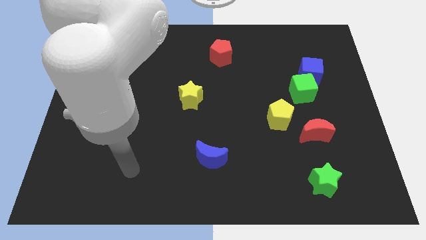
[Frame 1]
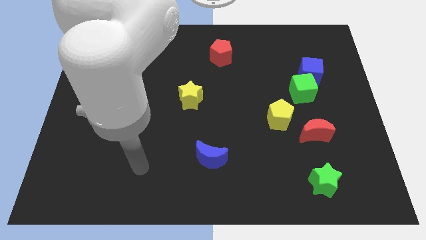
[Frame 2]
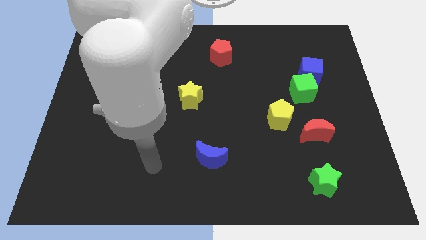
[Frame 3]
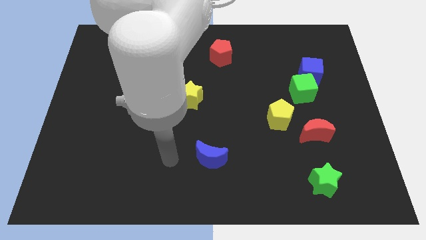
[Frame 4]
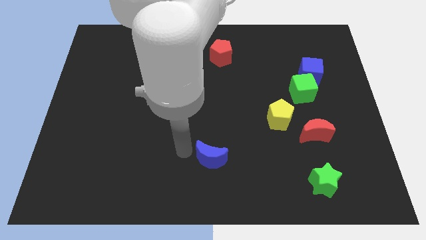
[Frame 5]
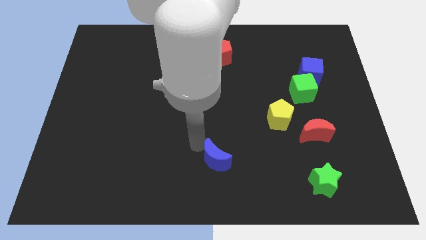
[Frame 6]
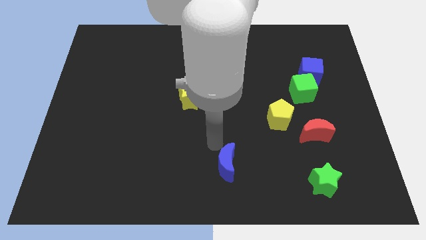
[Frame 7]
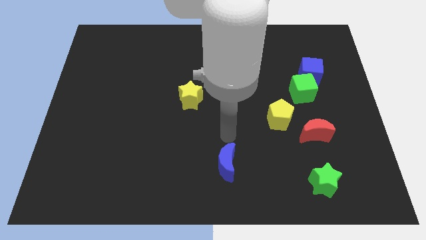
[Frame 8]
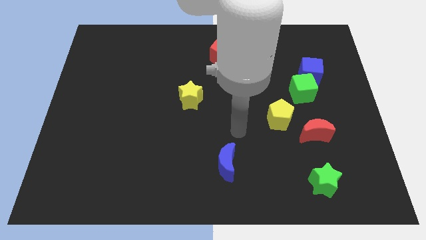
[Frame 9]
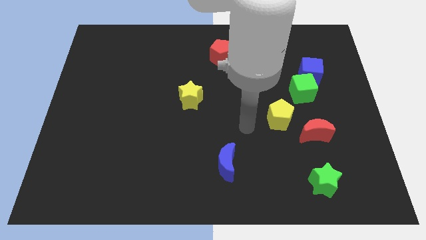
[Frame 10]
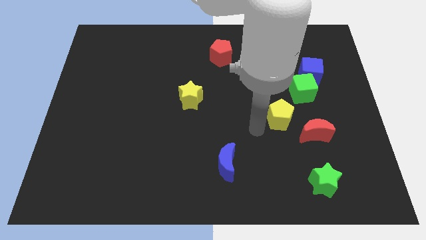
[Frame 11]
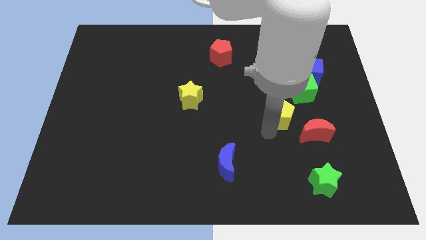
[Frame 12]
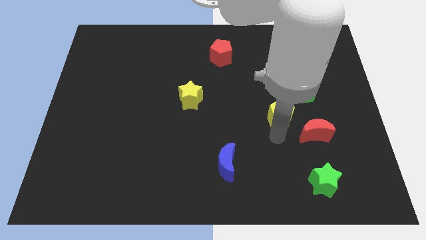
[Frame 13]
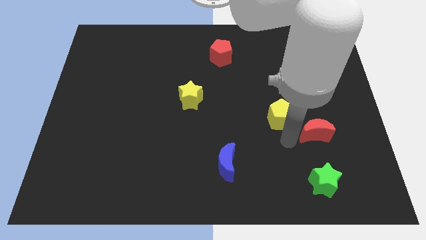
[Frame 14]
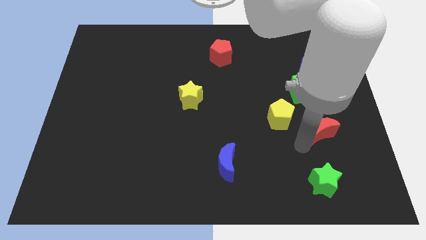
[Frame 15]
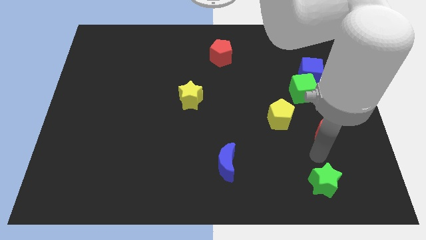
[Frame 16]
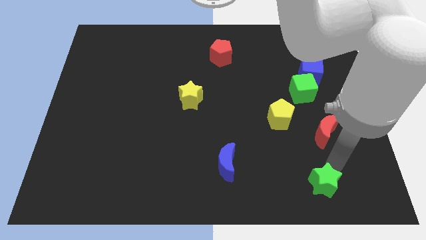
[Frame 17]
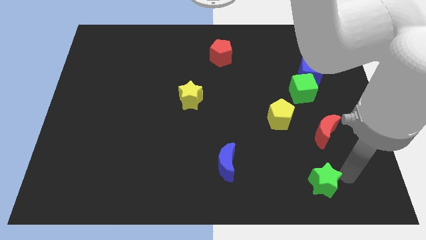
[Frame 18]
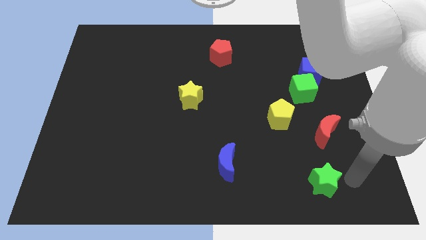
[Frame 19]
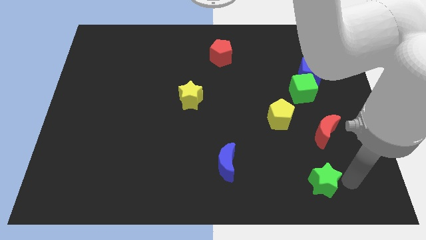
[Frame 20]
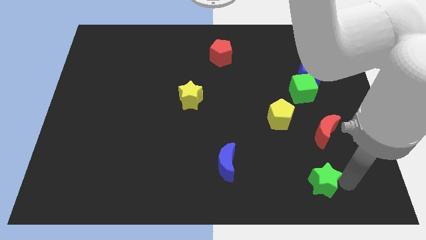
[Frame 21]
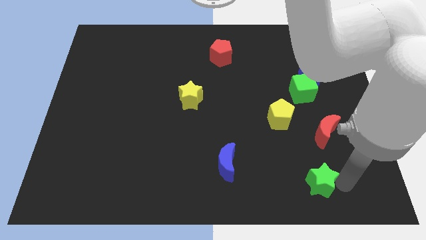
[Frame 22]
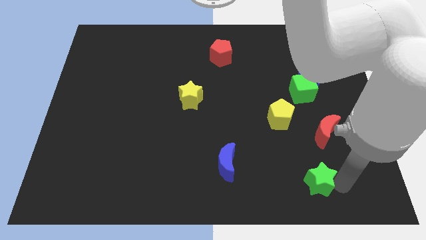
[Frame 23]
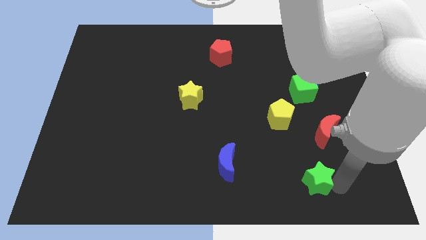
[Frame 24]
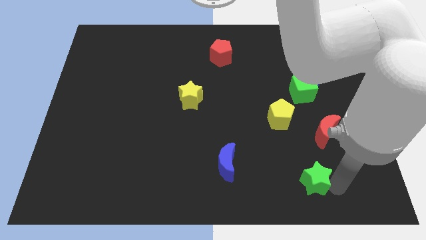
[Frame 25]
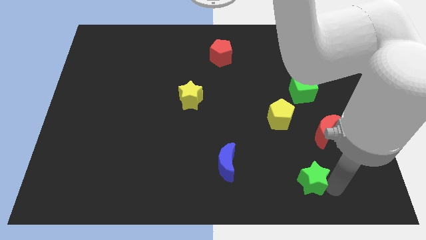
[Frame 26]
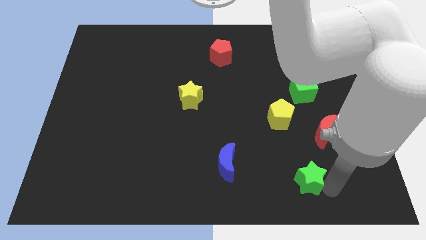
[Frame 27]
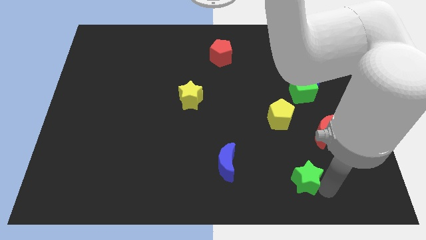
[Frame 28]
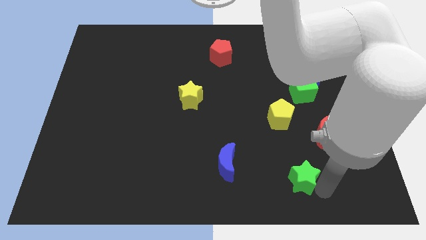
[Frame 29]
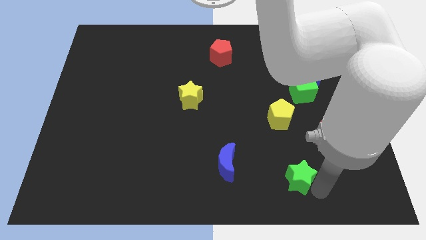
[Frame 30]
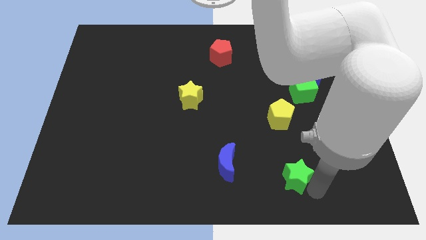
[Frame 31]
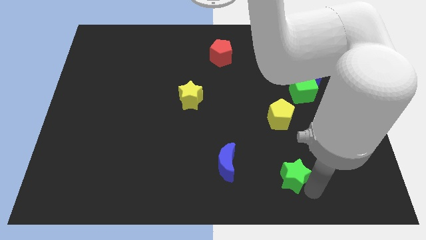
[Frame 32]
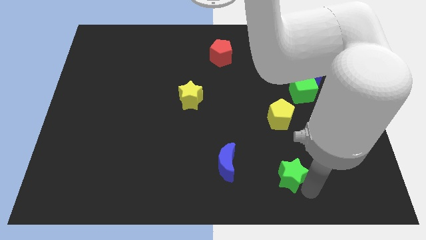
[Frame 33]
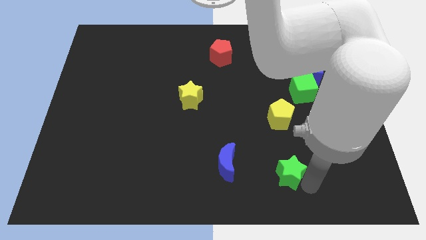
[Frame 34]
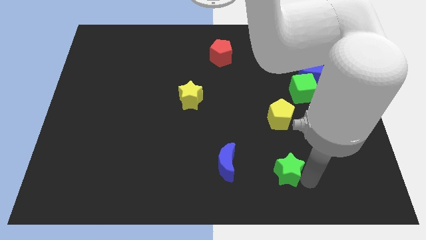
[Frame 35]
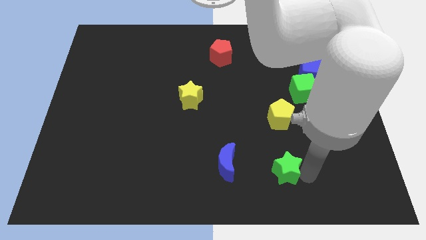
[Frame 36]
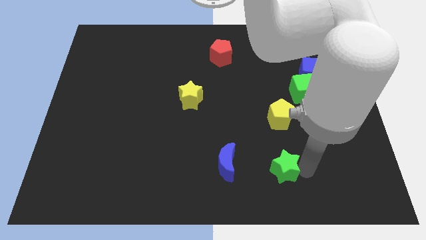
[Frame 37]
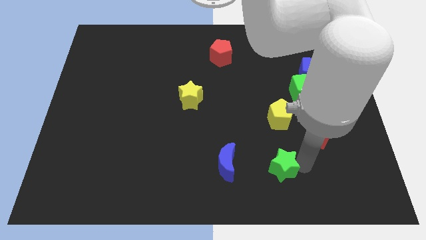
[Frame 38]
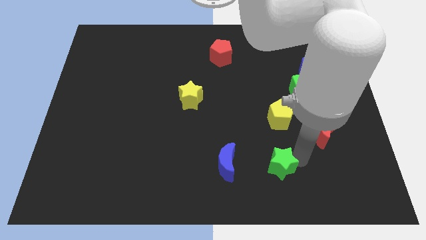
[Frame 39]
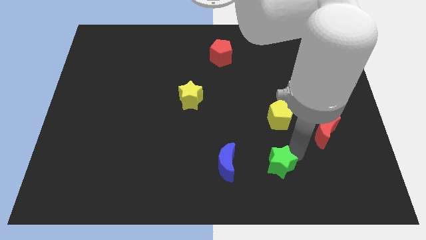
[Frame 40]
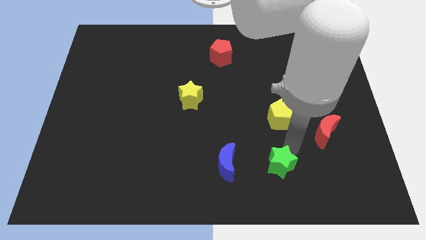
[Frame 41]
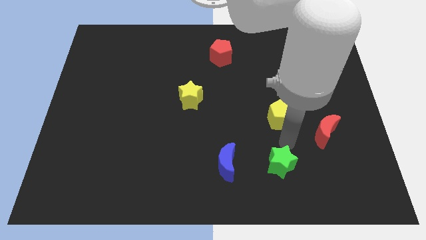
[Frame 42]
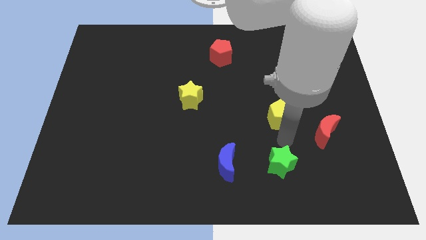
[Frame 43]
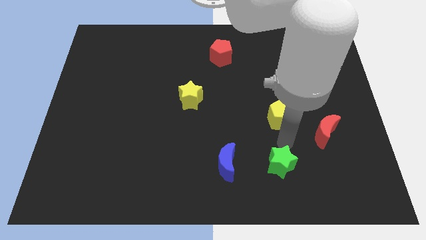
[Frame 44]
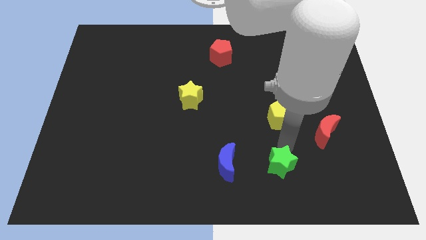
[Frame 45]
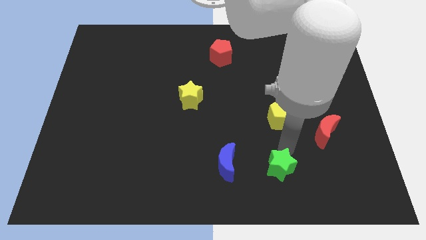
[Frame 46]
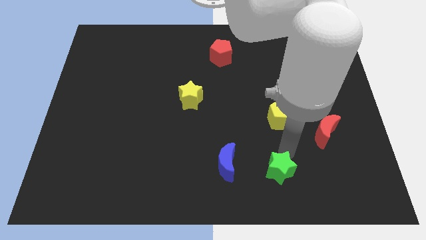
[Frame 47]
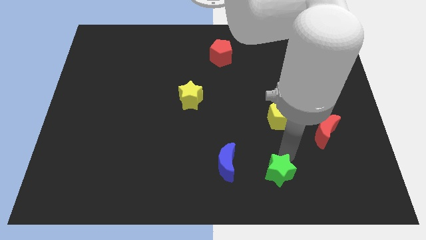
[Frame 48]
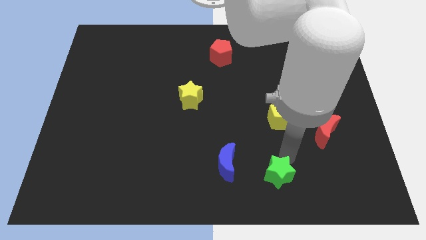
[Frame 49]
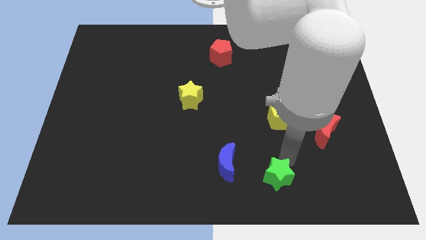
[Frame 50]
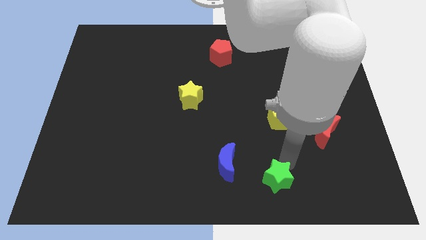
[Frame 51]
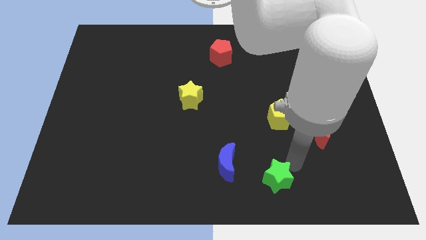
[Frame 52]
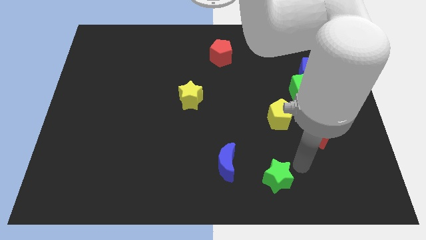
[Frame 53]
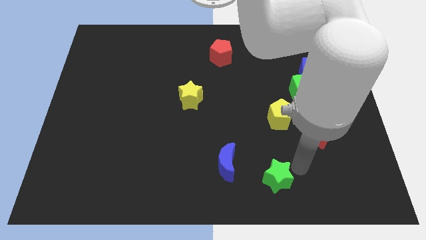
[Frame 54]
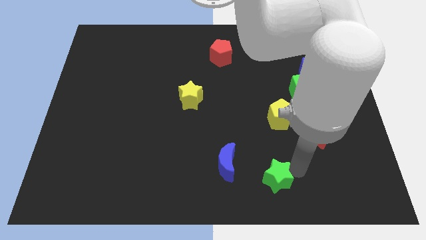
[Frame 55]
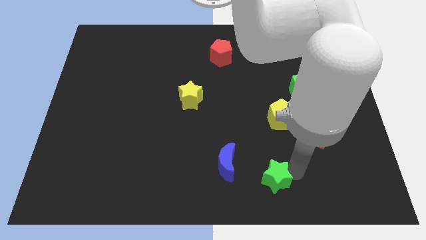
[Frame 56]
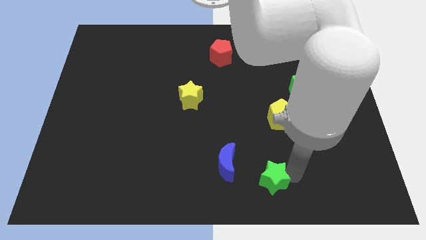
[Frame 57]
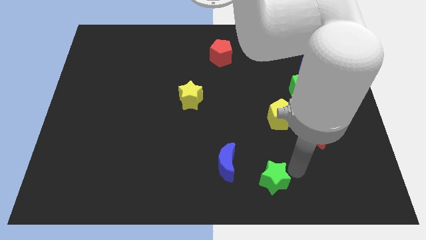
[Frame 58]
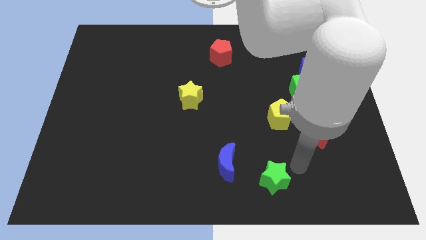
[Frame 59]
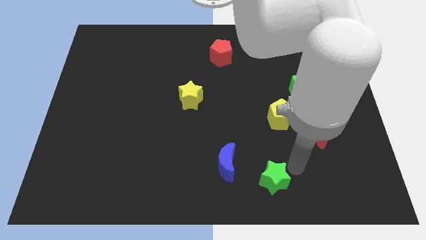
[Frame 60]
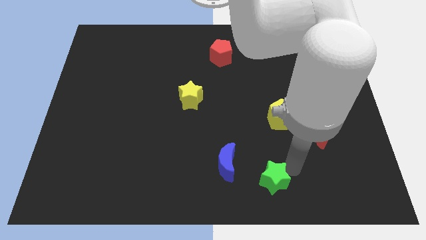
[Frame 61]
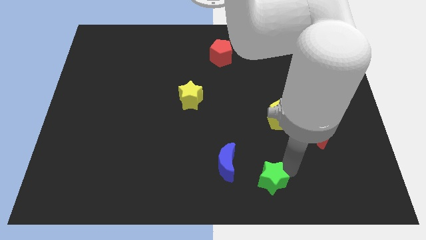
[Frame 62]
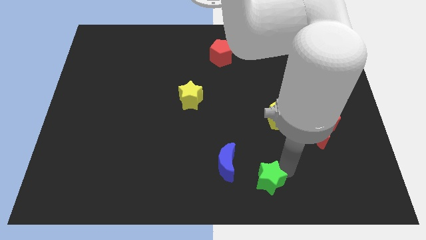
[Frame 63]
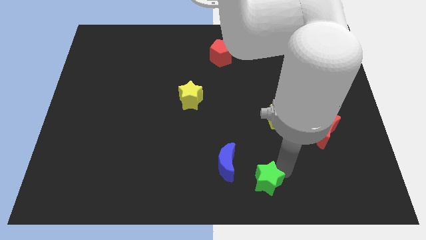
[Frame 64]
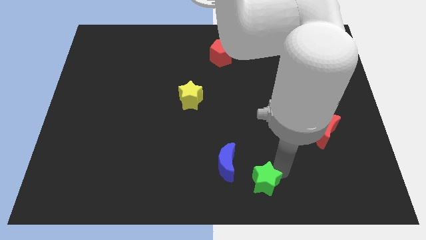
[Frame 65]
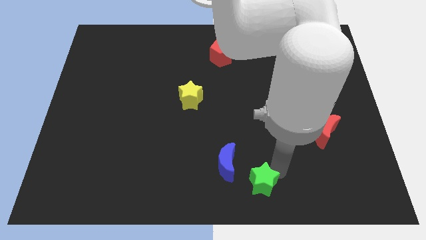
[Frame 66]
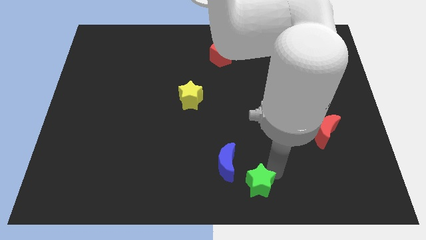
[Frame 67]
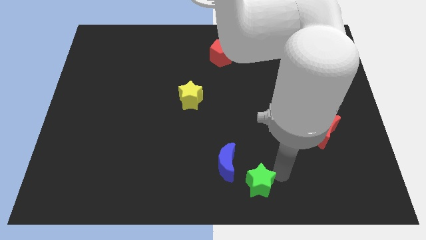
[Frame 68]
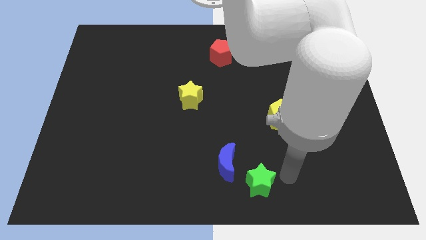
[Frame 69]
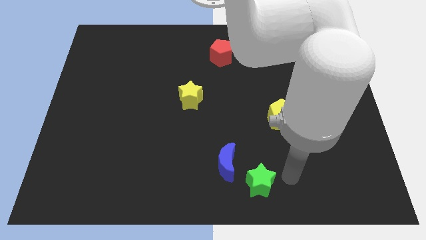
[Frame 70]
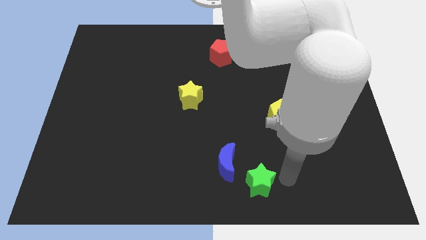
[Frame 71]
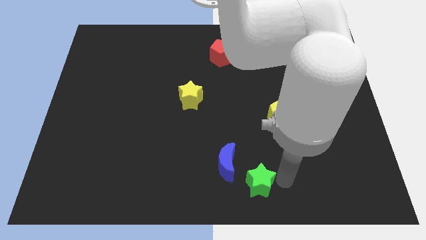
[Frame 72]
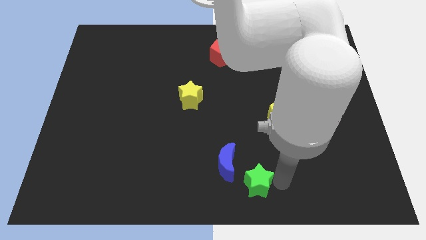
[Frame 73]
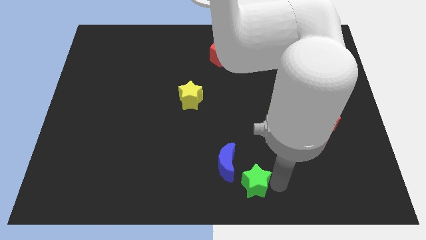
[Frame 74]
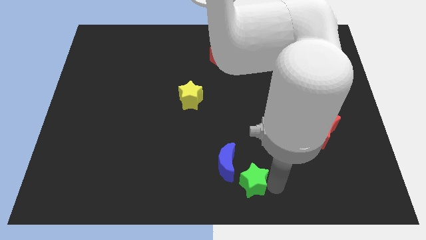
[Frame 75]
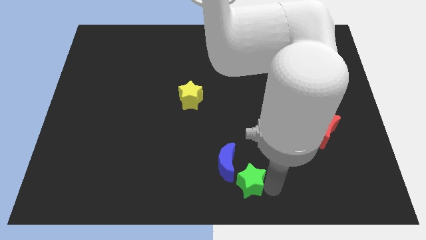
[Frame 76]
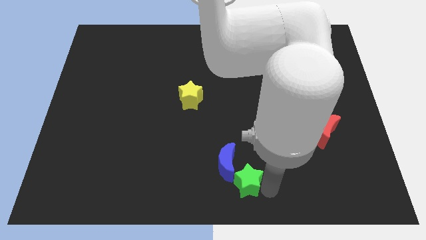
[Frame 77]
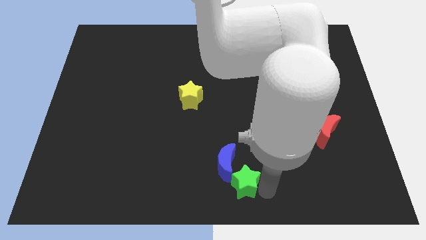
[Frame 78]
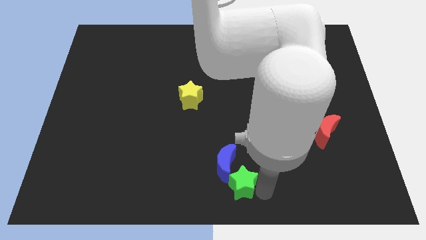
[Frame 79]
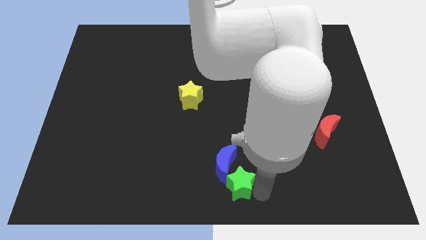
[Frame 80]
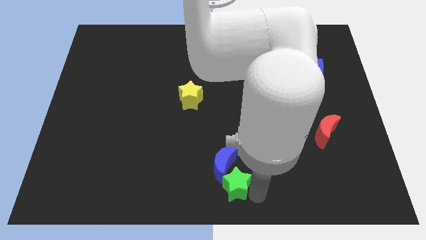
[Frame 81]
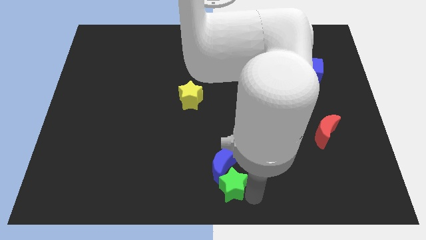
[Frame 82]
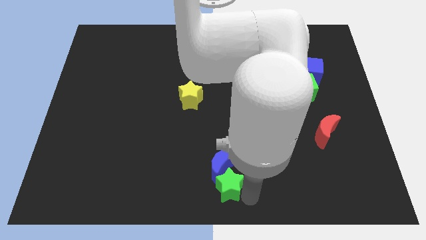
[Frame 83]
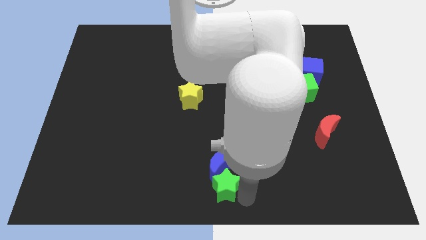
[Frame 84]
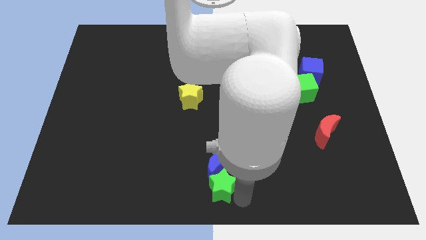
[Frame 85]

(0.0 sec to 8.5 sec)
slide the green star to the left
